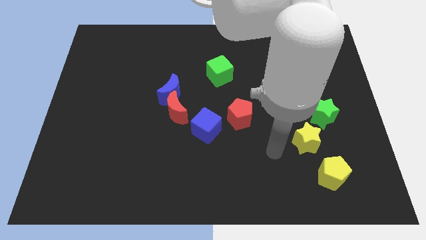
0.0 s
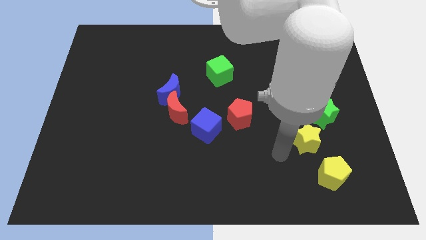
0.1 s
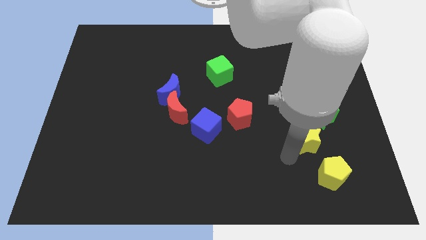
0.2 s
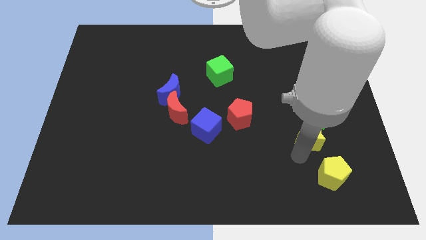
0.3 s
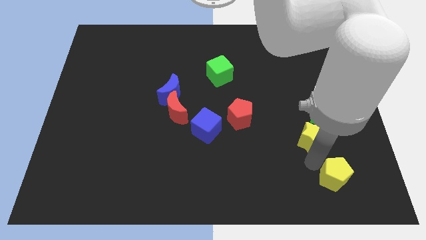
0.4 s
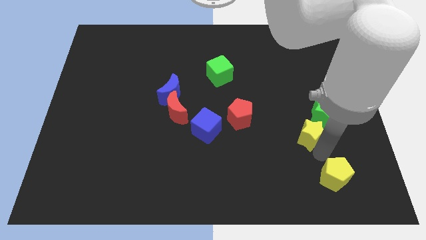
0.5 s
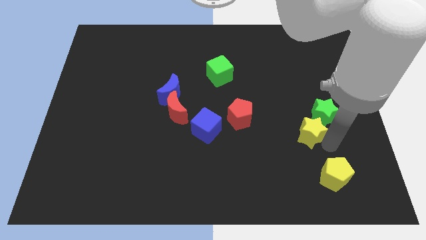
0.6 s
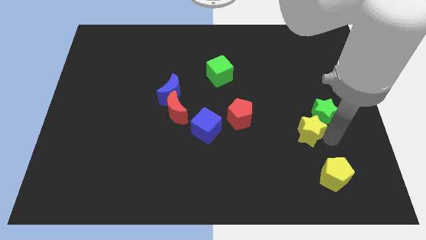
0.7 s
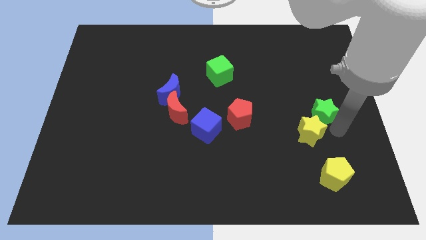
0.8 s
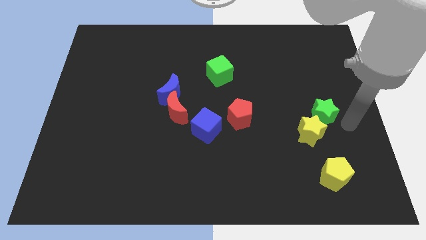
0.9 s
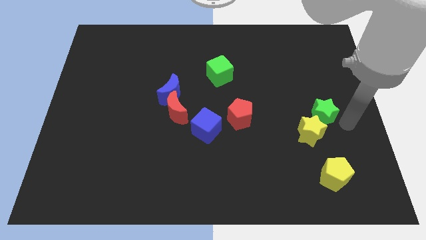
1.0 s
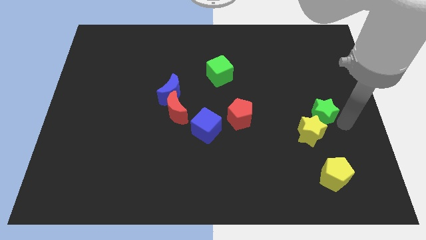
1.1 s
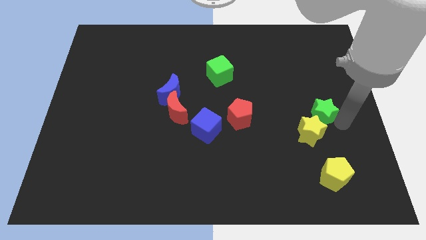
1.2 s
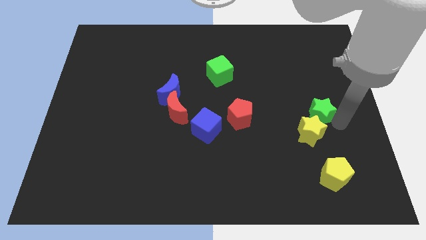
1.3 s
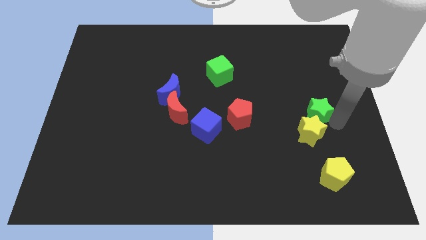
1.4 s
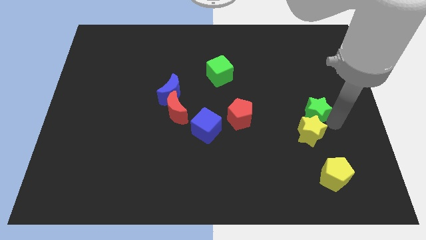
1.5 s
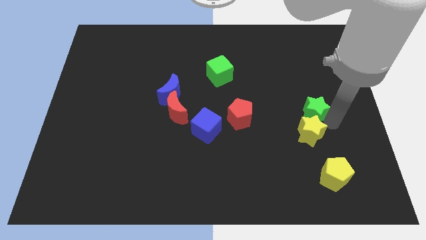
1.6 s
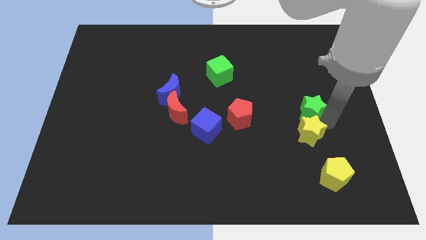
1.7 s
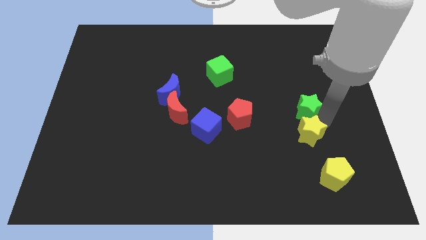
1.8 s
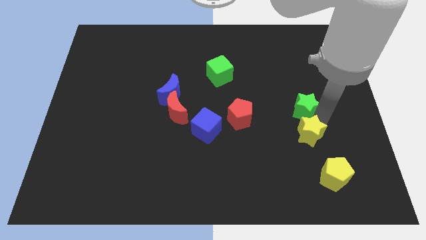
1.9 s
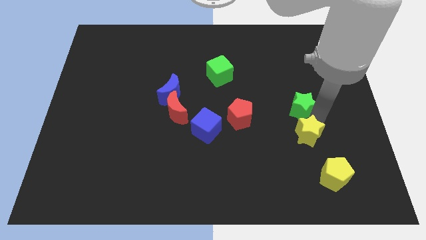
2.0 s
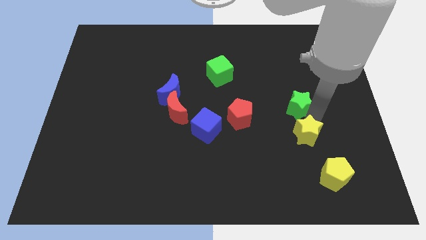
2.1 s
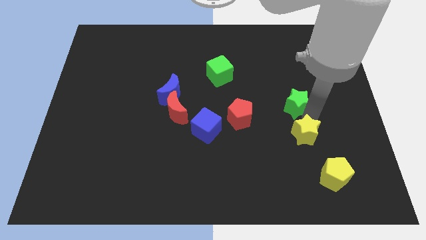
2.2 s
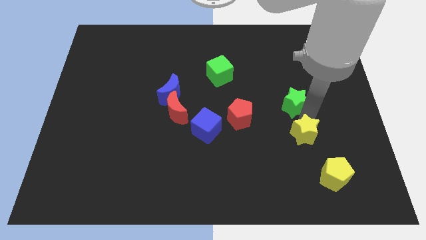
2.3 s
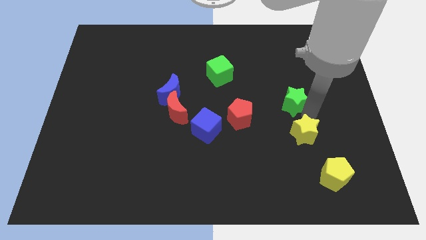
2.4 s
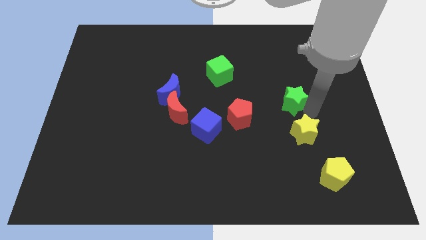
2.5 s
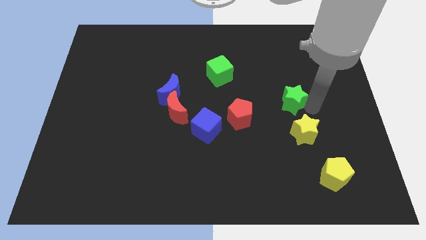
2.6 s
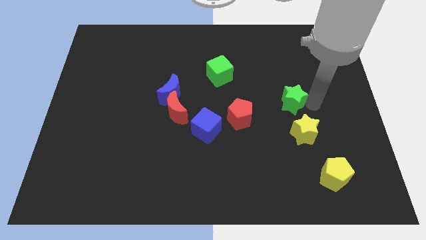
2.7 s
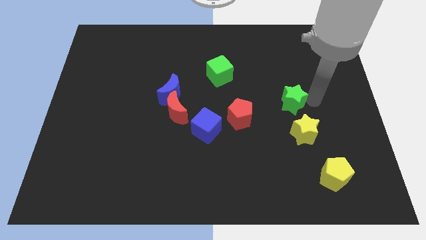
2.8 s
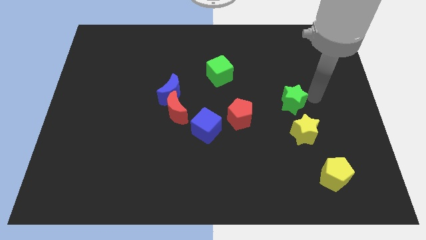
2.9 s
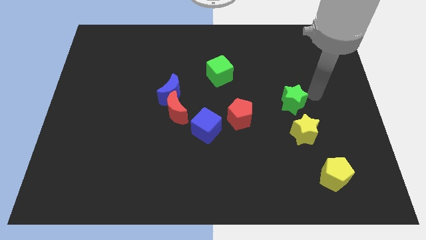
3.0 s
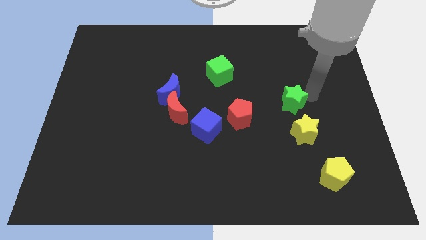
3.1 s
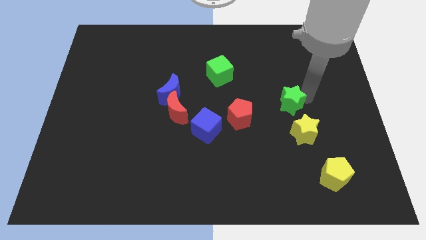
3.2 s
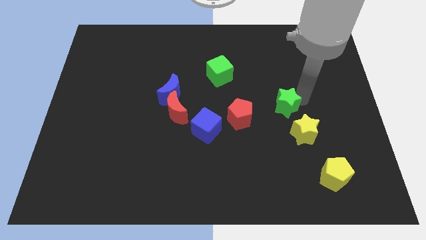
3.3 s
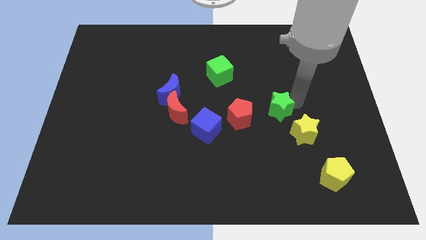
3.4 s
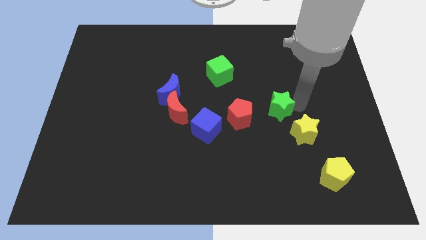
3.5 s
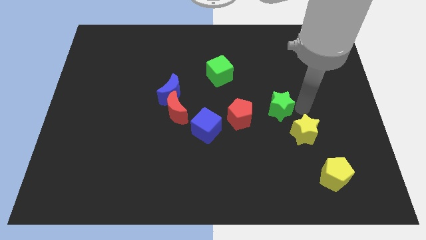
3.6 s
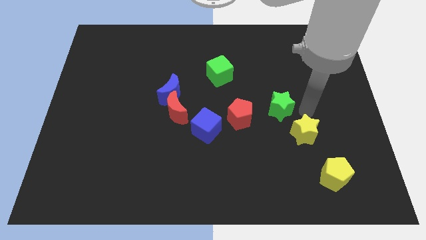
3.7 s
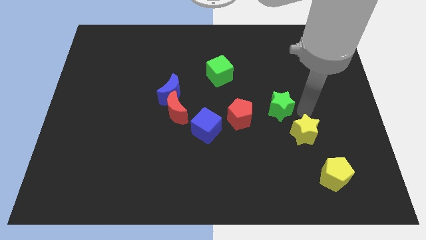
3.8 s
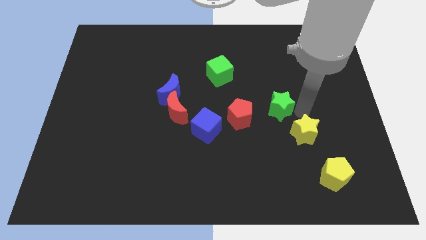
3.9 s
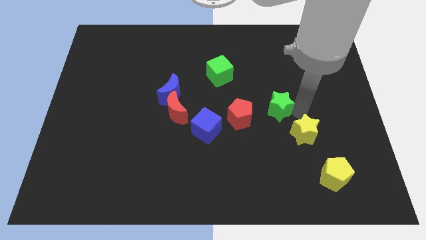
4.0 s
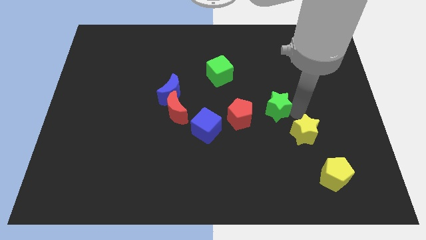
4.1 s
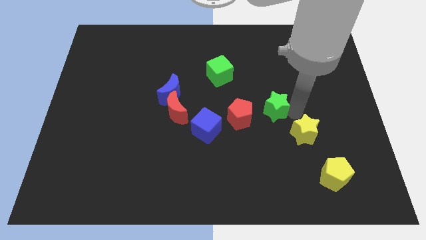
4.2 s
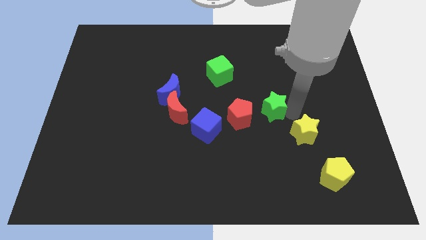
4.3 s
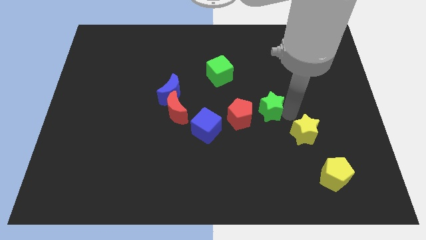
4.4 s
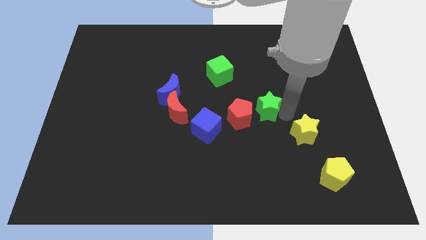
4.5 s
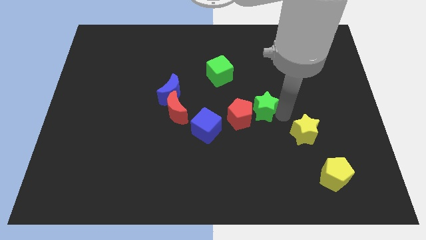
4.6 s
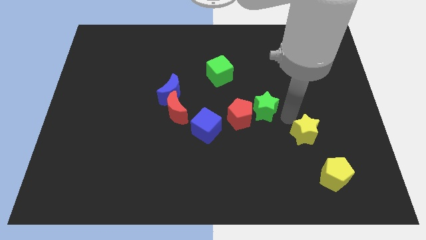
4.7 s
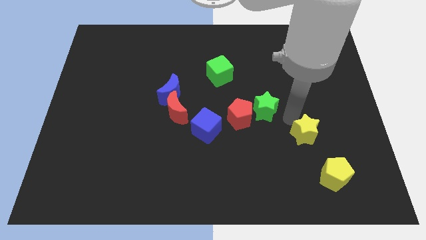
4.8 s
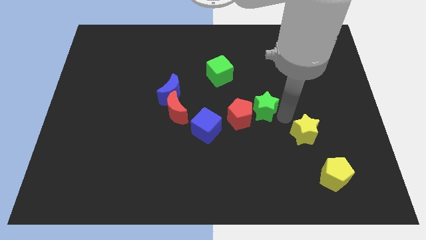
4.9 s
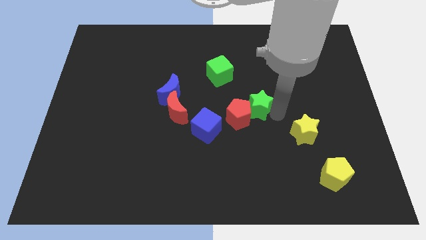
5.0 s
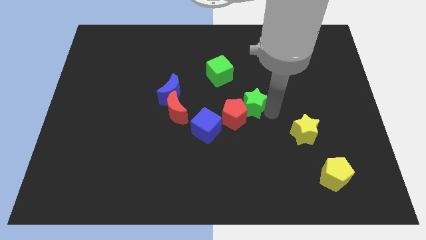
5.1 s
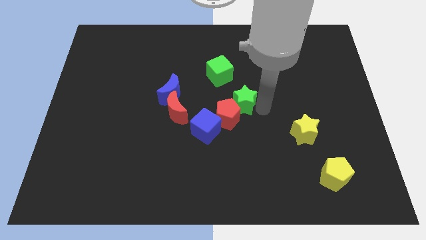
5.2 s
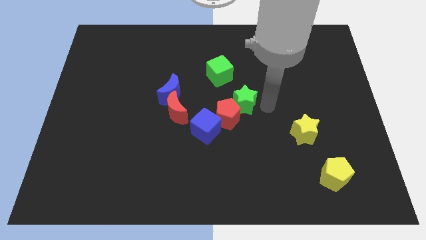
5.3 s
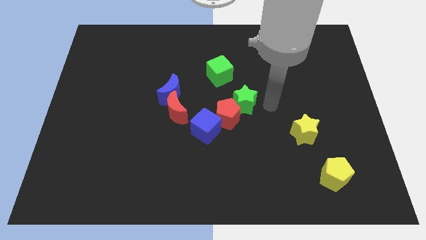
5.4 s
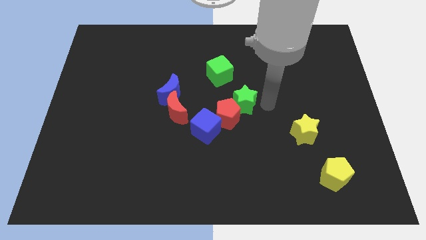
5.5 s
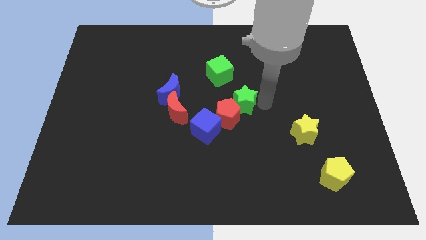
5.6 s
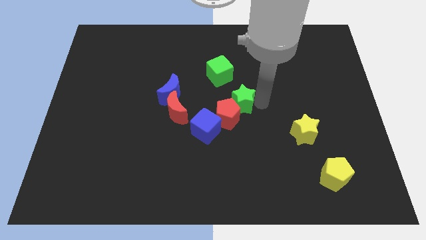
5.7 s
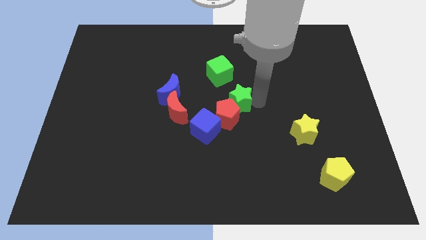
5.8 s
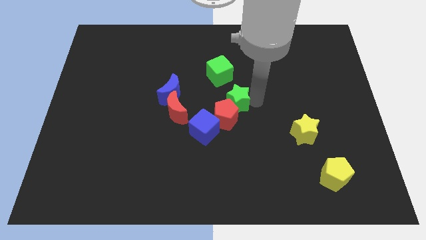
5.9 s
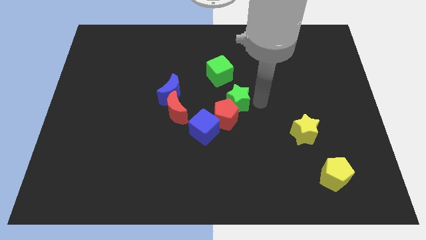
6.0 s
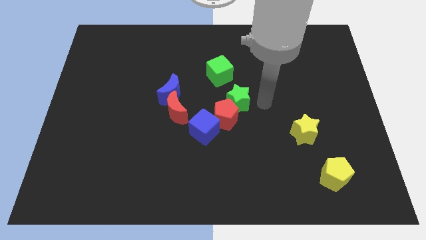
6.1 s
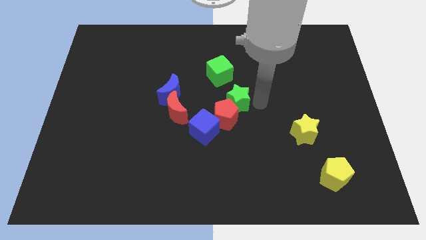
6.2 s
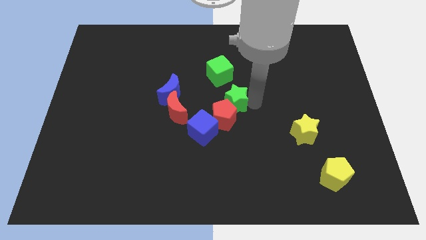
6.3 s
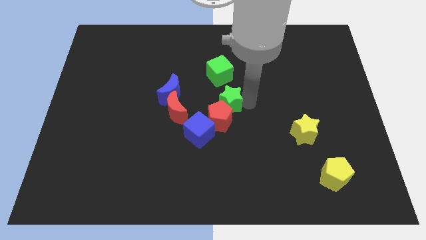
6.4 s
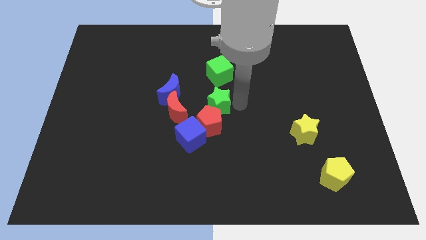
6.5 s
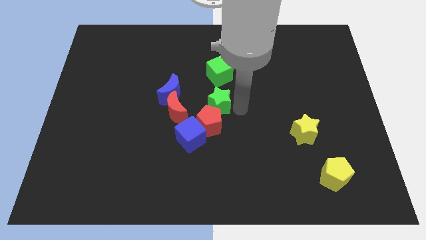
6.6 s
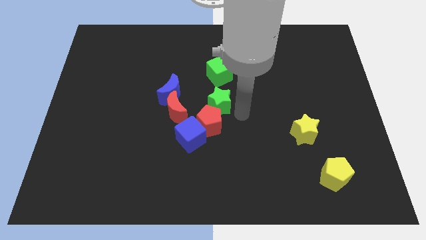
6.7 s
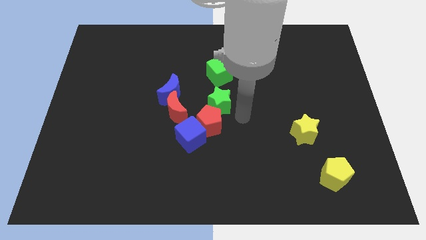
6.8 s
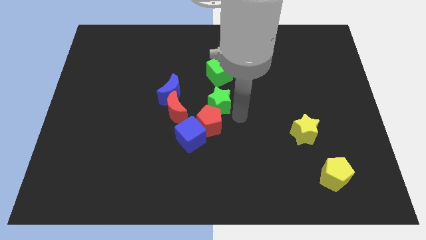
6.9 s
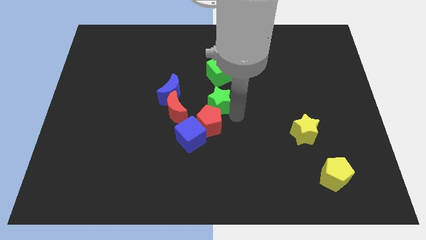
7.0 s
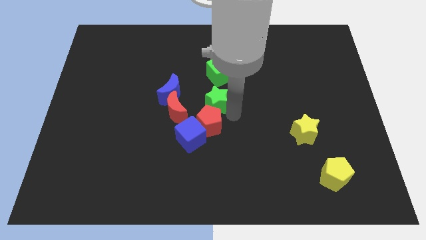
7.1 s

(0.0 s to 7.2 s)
slide the green star to the top right of the red moon

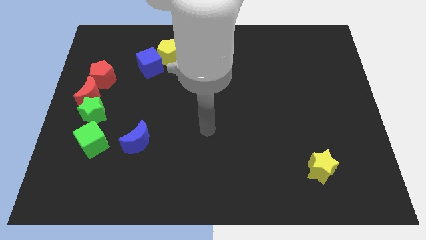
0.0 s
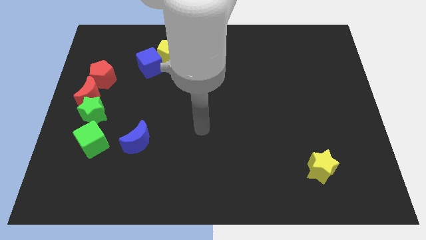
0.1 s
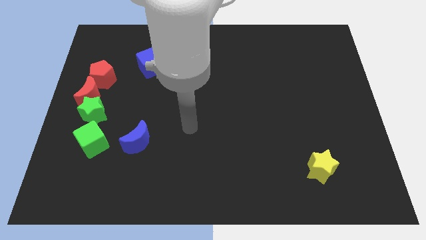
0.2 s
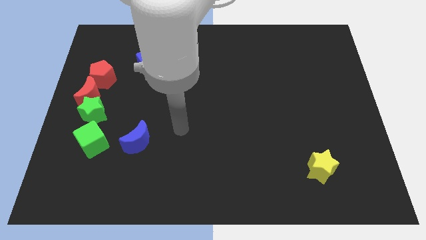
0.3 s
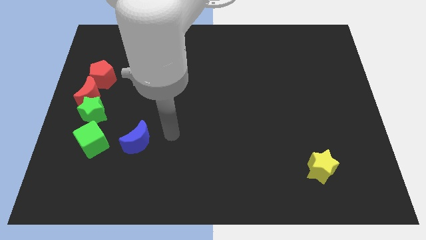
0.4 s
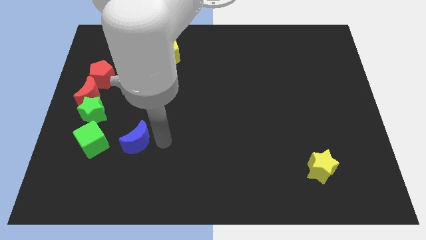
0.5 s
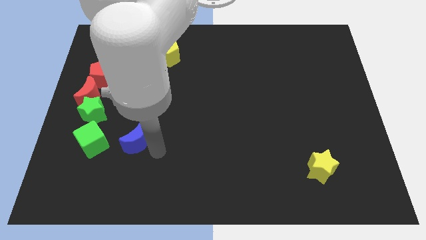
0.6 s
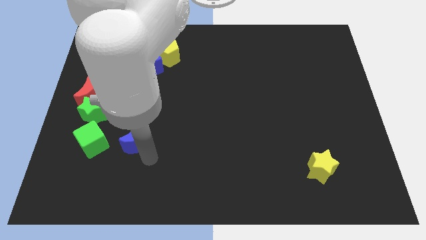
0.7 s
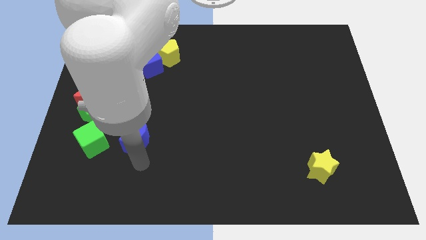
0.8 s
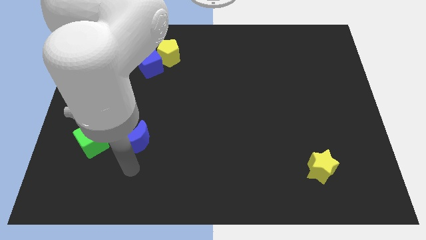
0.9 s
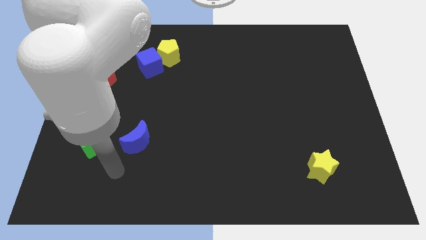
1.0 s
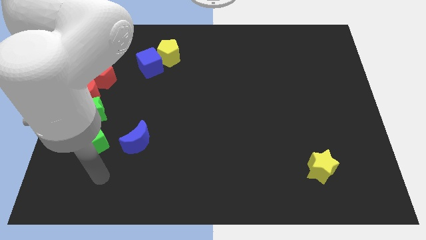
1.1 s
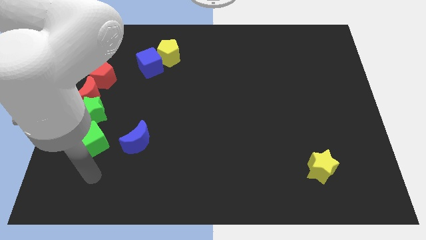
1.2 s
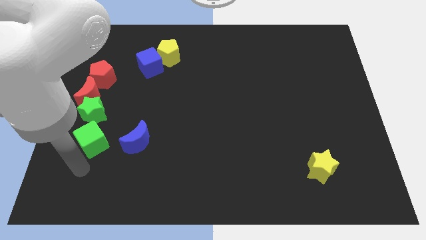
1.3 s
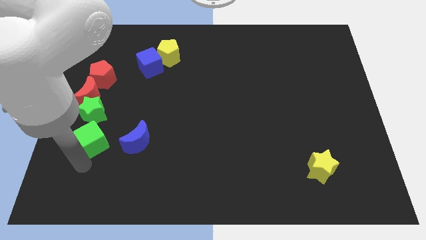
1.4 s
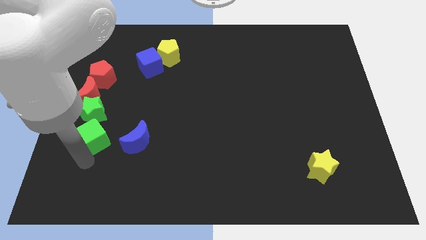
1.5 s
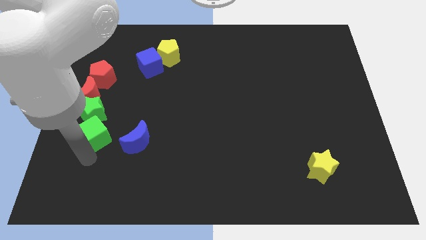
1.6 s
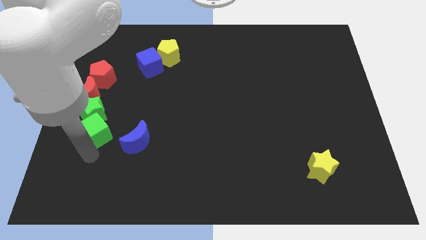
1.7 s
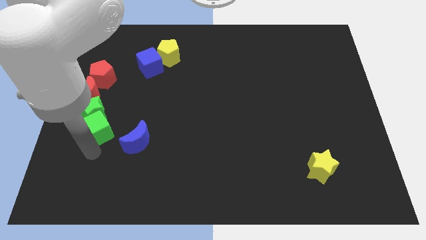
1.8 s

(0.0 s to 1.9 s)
push the green cube to the bottom right of the red moon
